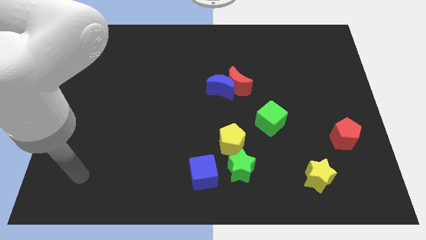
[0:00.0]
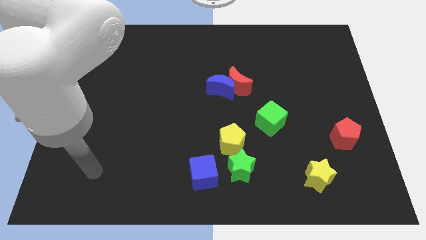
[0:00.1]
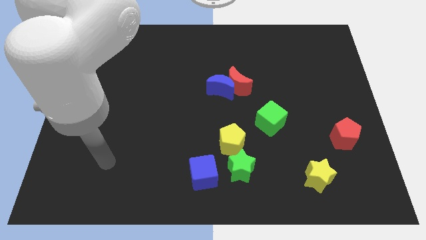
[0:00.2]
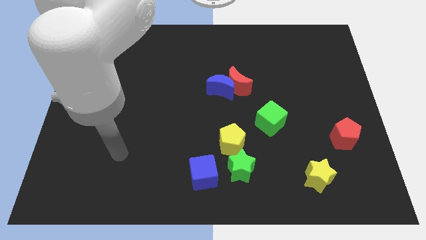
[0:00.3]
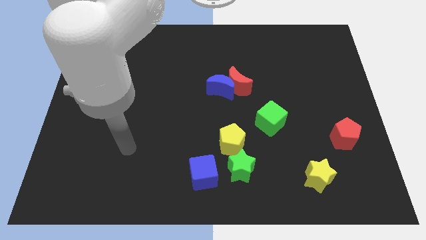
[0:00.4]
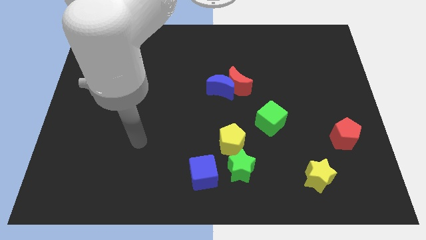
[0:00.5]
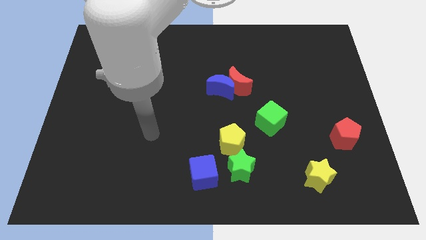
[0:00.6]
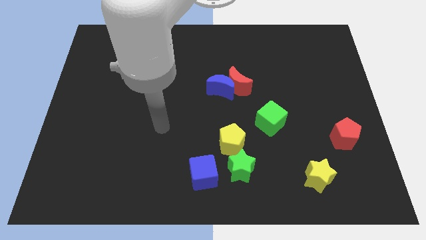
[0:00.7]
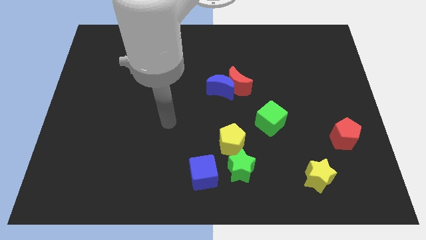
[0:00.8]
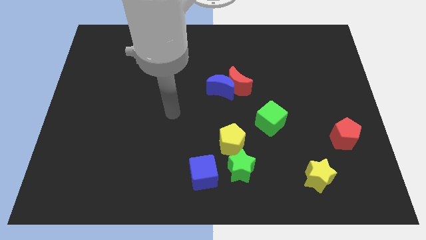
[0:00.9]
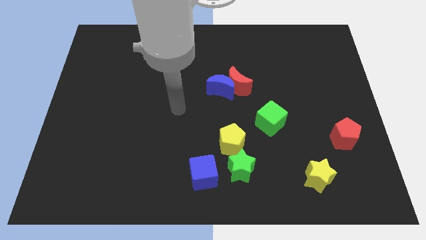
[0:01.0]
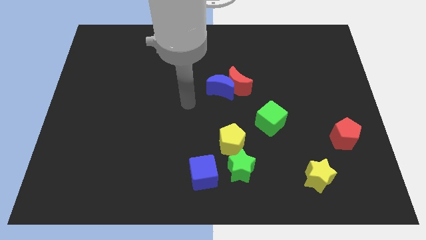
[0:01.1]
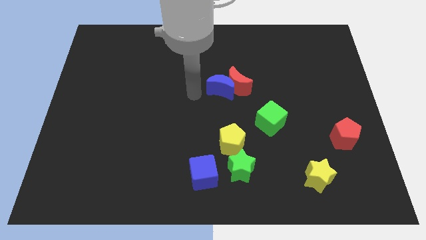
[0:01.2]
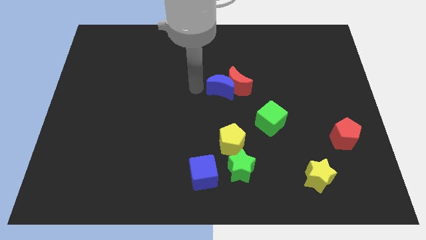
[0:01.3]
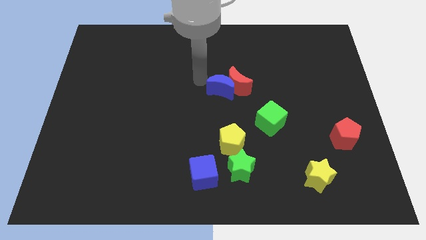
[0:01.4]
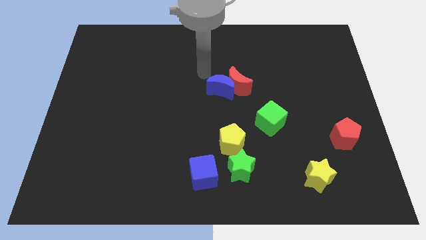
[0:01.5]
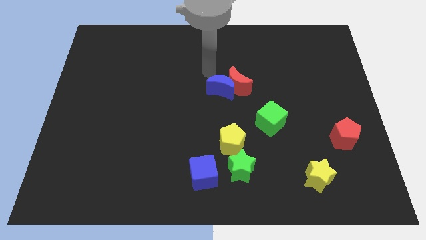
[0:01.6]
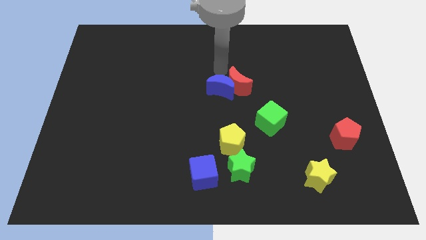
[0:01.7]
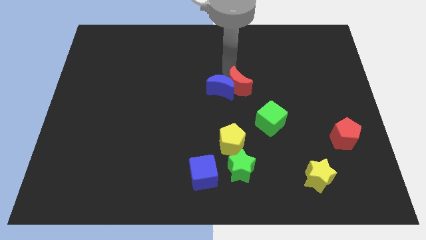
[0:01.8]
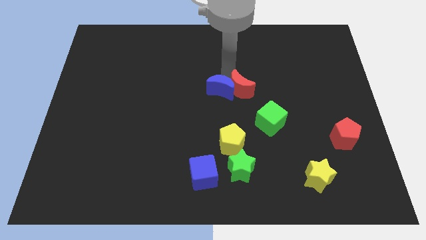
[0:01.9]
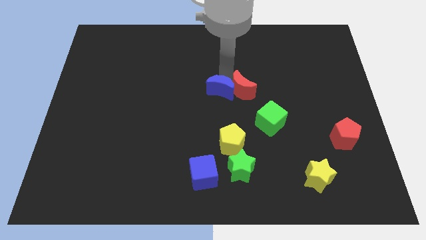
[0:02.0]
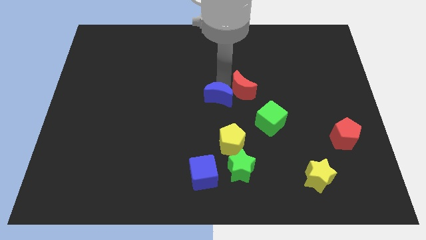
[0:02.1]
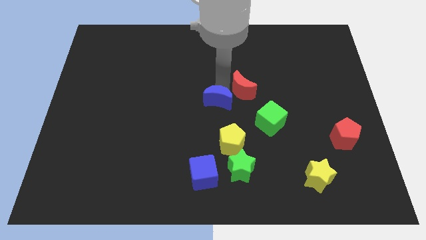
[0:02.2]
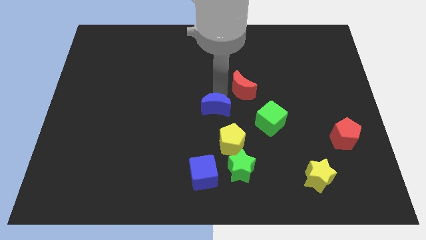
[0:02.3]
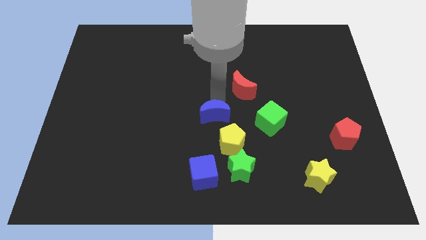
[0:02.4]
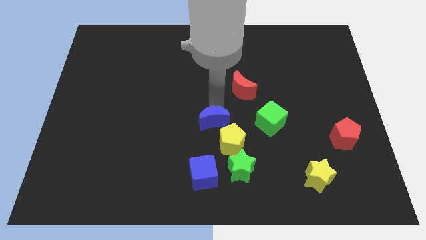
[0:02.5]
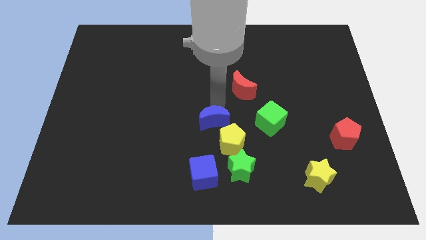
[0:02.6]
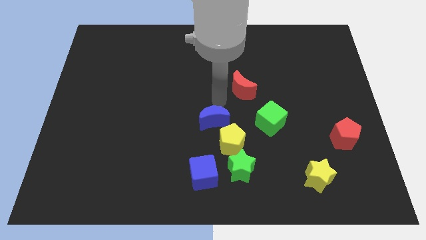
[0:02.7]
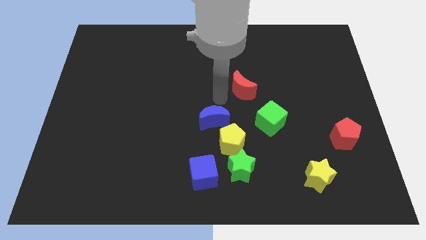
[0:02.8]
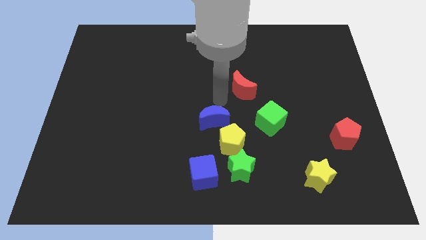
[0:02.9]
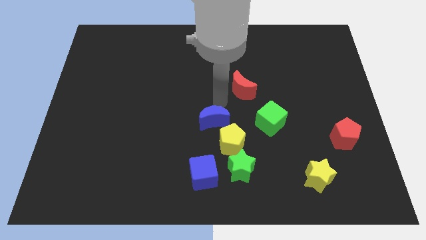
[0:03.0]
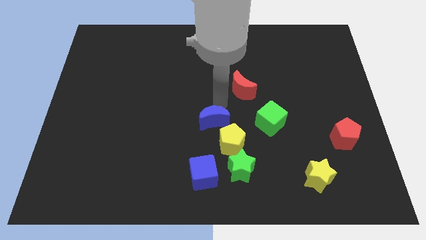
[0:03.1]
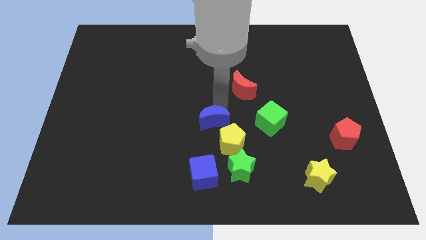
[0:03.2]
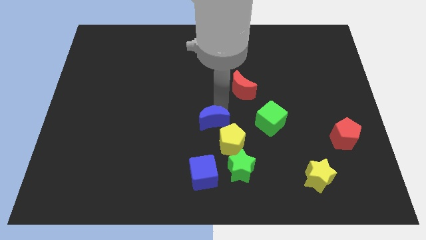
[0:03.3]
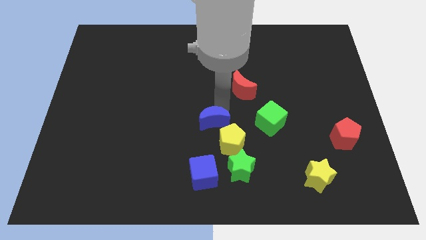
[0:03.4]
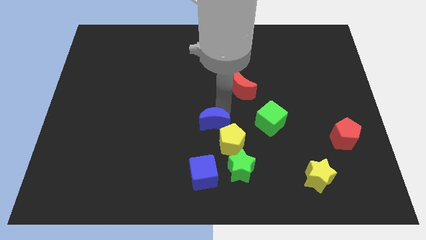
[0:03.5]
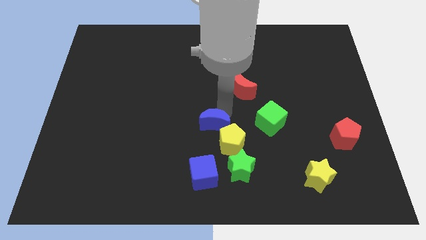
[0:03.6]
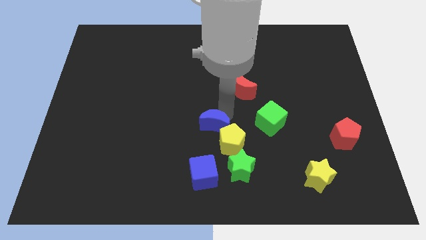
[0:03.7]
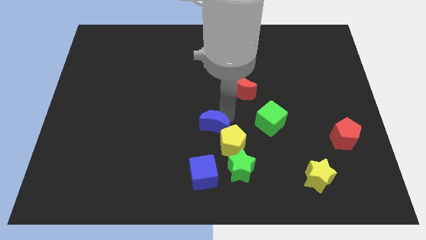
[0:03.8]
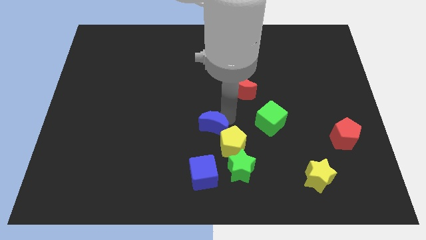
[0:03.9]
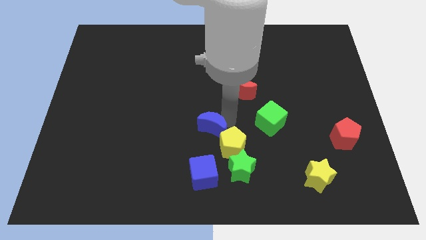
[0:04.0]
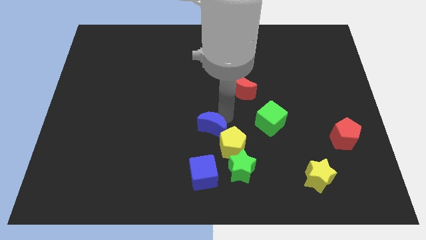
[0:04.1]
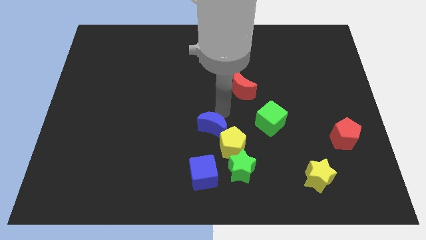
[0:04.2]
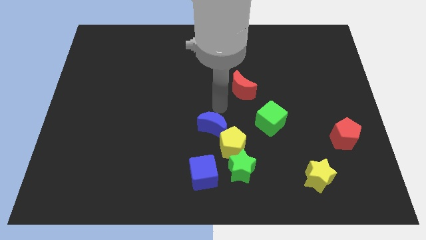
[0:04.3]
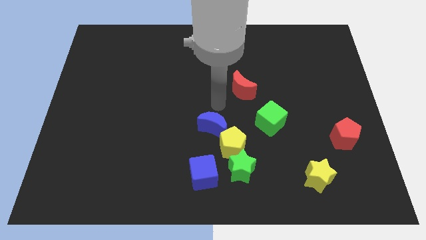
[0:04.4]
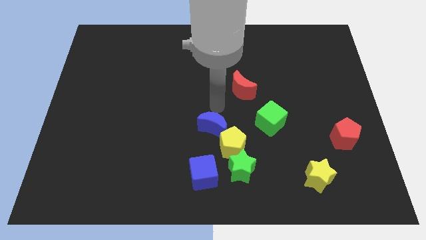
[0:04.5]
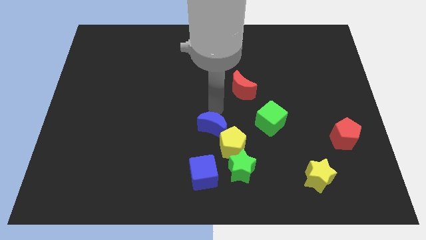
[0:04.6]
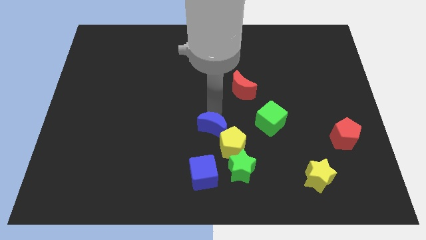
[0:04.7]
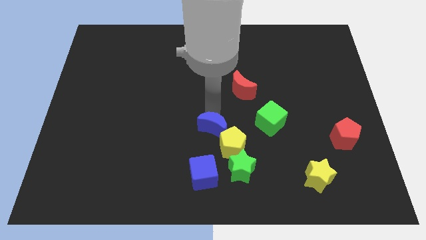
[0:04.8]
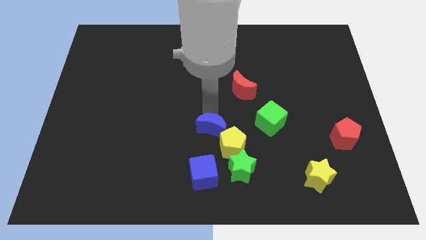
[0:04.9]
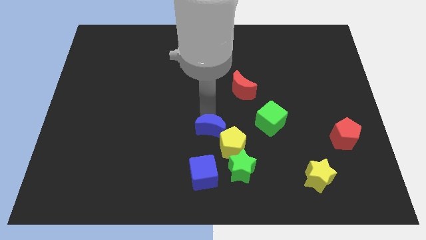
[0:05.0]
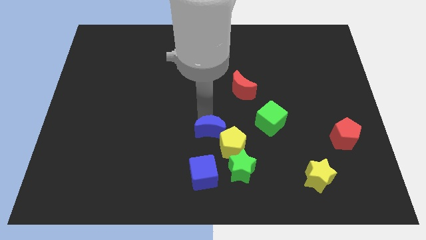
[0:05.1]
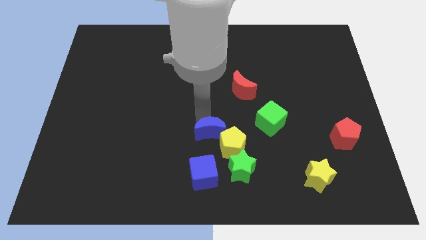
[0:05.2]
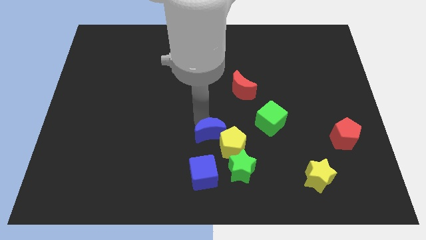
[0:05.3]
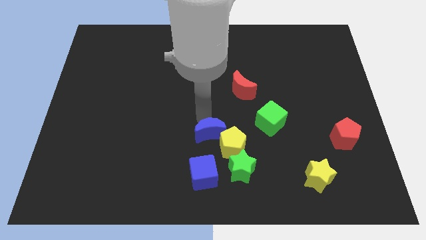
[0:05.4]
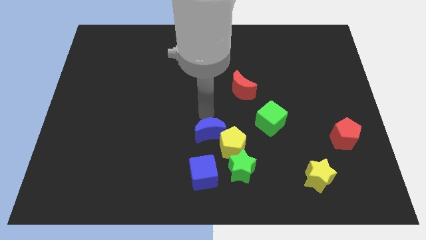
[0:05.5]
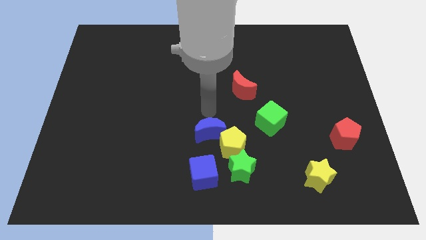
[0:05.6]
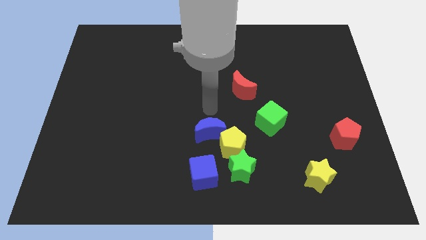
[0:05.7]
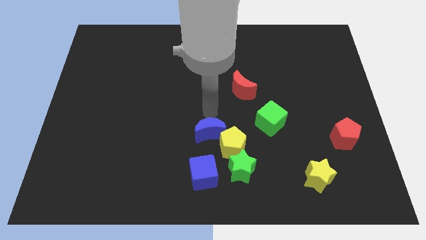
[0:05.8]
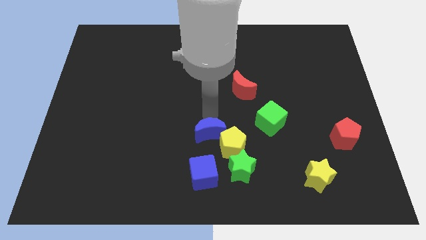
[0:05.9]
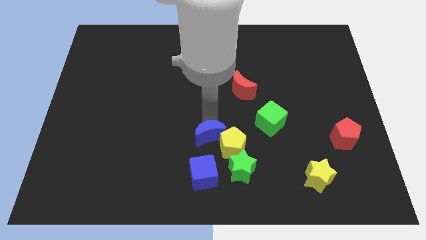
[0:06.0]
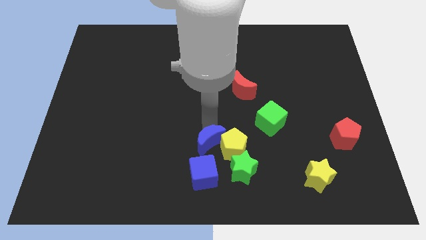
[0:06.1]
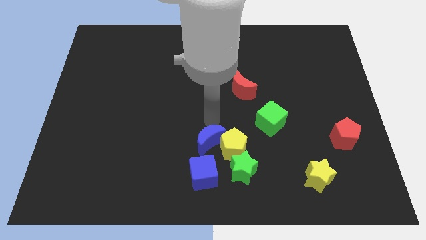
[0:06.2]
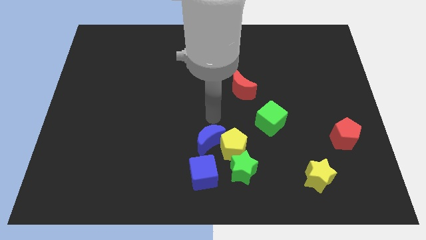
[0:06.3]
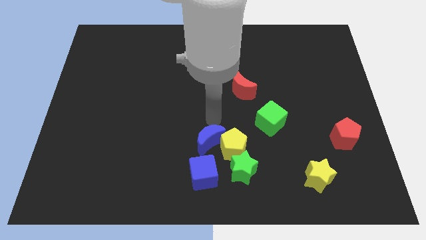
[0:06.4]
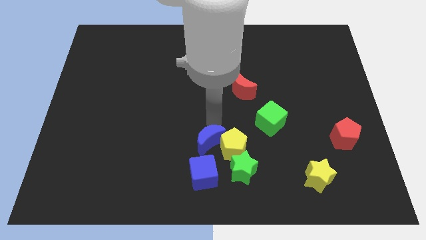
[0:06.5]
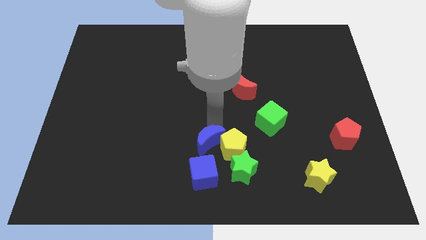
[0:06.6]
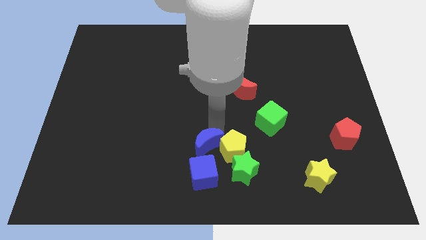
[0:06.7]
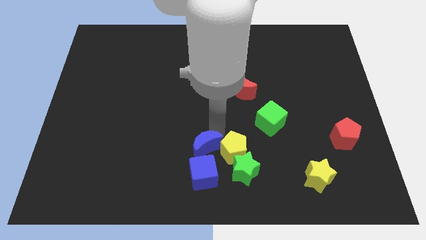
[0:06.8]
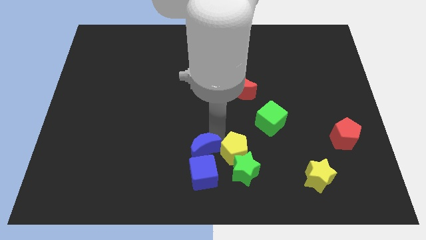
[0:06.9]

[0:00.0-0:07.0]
slide the blue moon to the blue cube

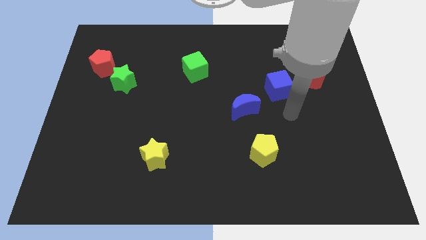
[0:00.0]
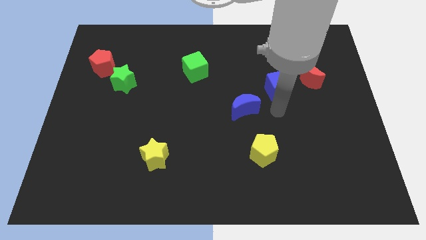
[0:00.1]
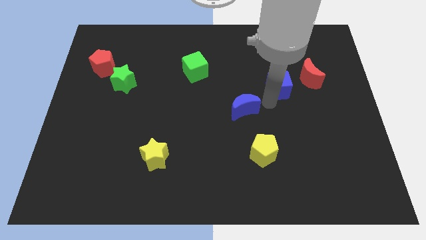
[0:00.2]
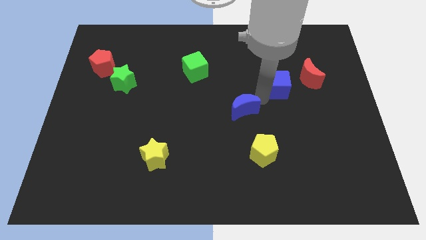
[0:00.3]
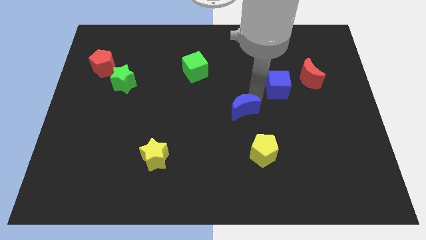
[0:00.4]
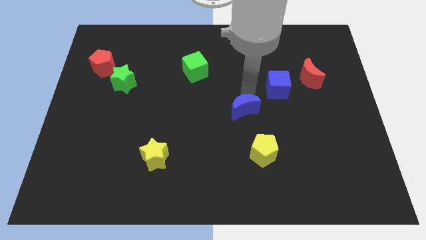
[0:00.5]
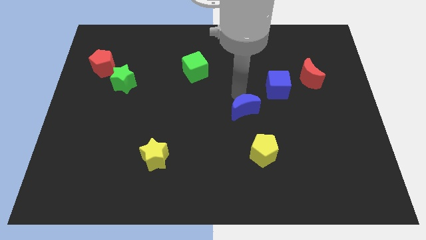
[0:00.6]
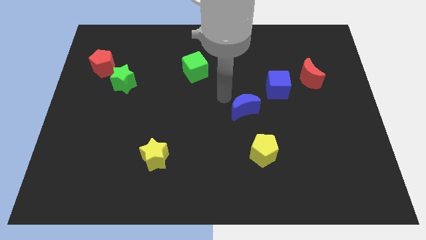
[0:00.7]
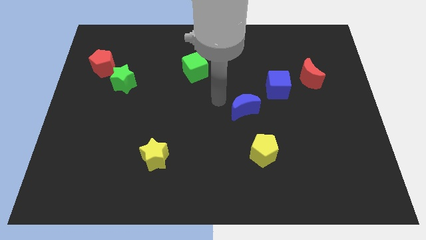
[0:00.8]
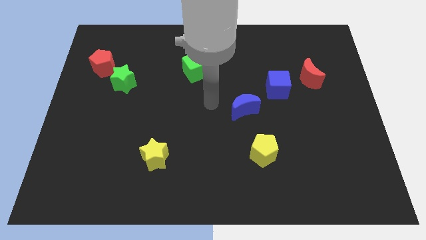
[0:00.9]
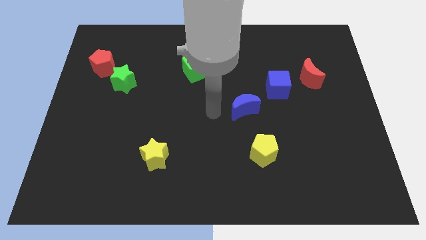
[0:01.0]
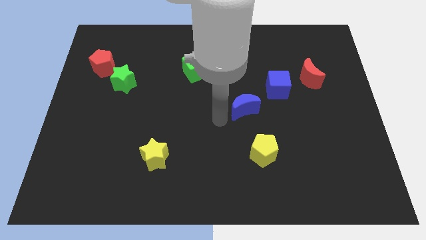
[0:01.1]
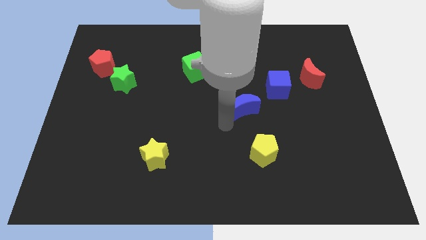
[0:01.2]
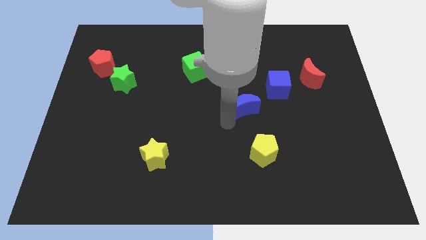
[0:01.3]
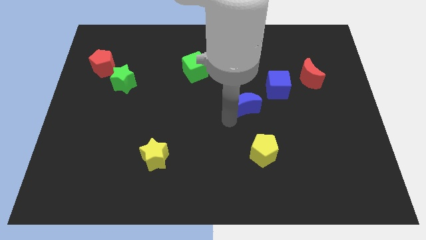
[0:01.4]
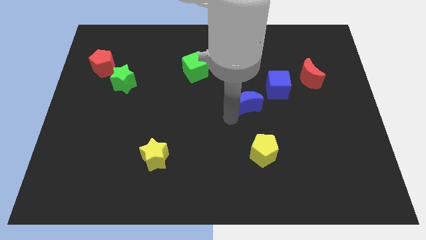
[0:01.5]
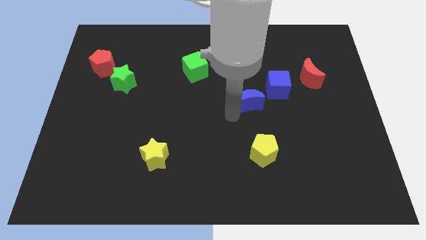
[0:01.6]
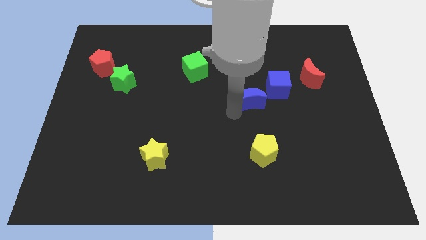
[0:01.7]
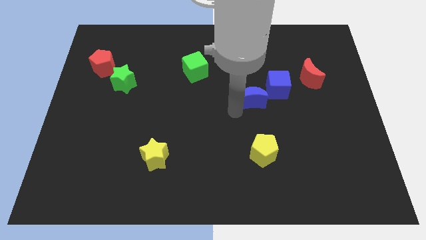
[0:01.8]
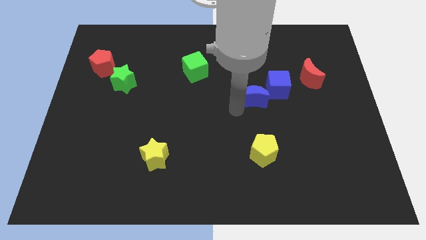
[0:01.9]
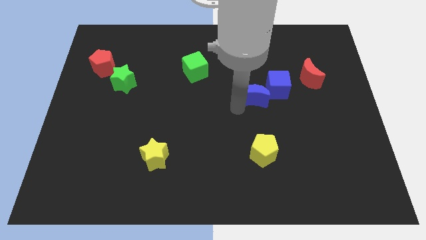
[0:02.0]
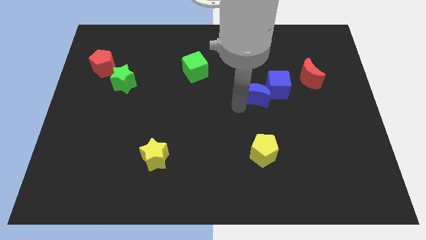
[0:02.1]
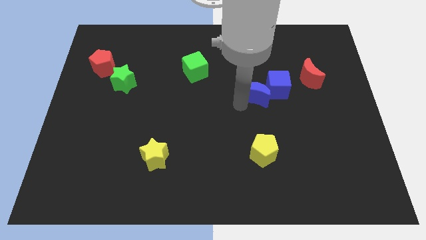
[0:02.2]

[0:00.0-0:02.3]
slide the blue moon close to the blue cube
